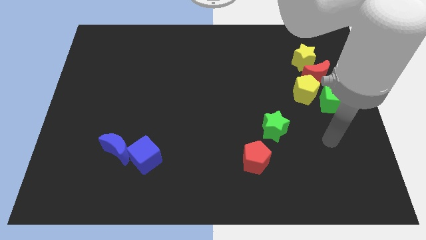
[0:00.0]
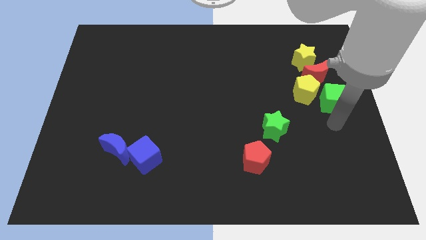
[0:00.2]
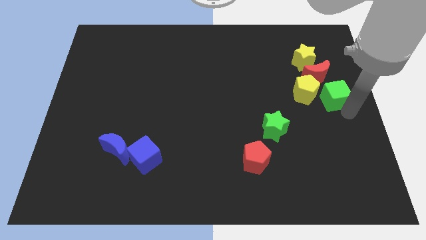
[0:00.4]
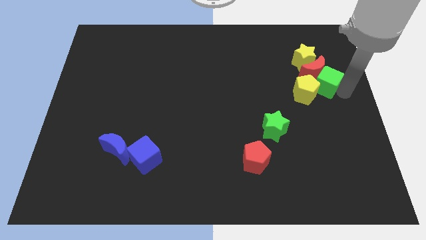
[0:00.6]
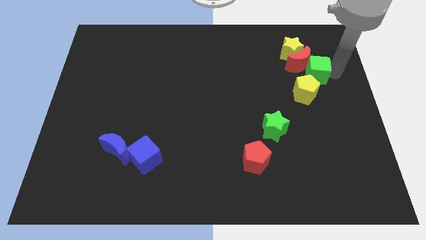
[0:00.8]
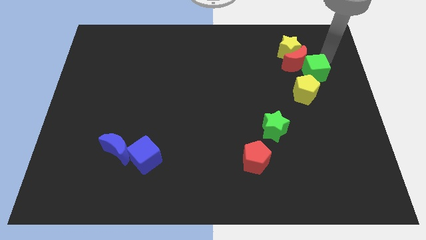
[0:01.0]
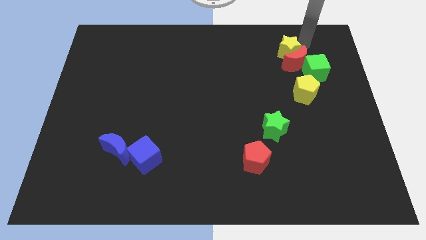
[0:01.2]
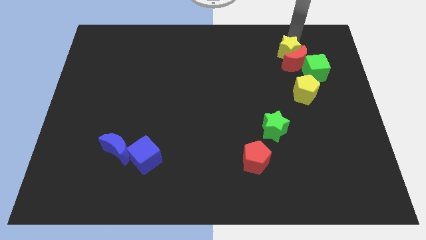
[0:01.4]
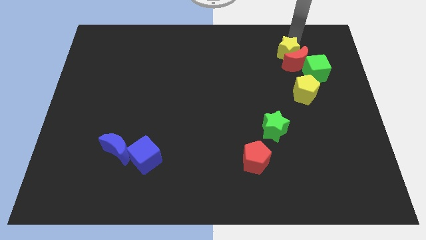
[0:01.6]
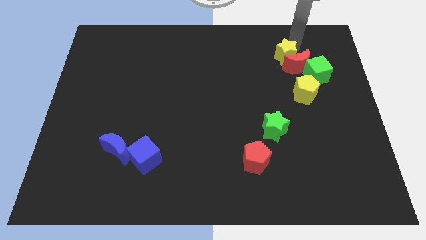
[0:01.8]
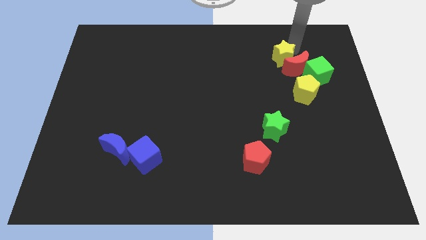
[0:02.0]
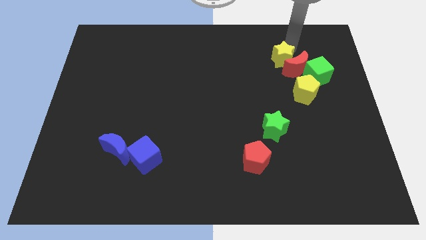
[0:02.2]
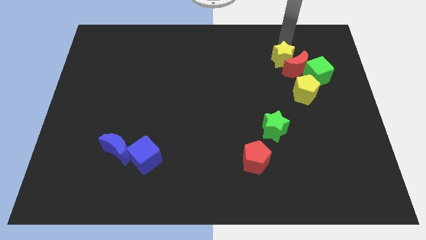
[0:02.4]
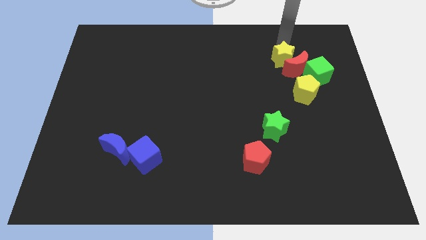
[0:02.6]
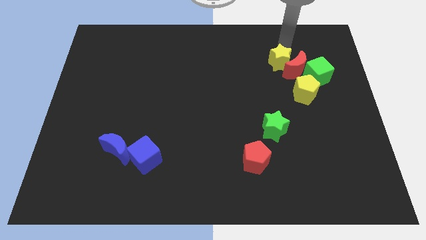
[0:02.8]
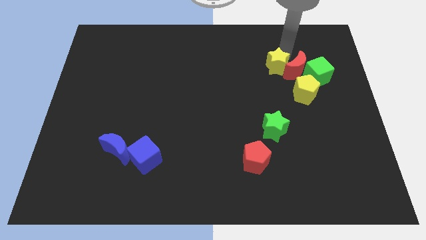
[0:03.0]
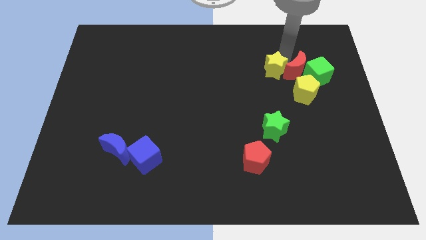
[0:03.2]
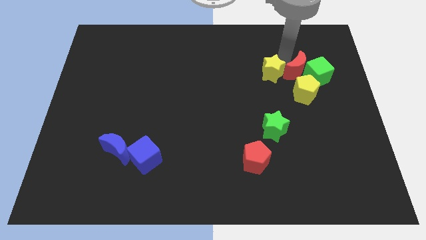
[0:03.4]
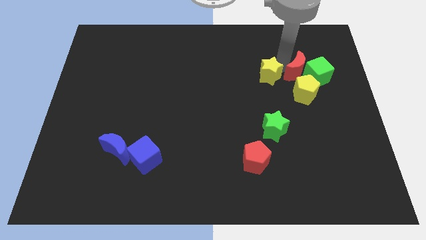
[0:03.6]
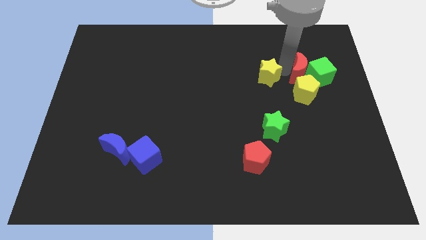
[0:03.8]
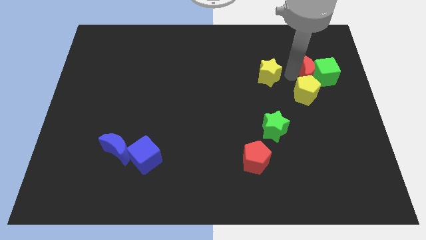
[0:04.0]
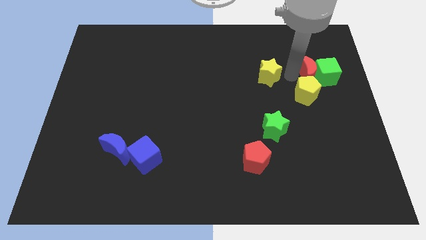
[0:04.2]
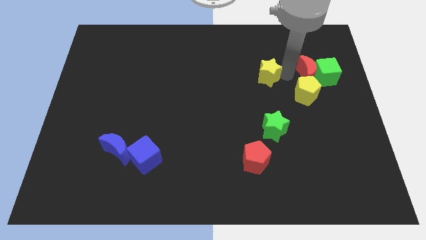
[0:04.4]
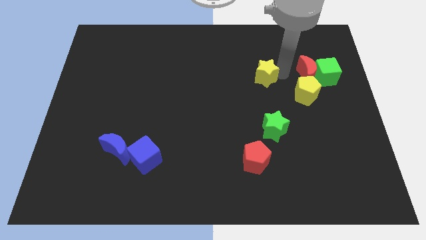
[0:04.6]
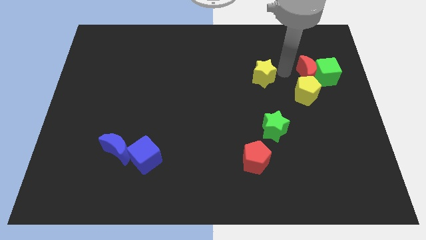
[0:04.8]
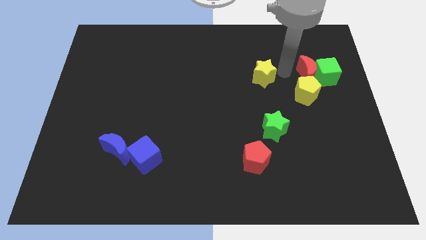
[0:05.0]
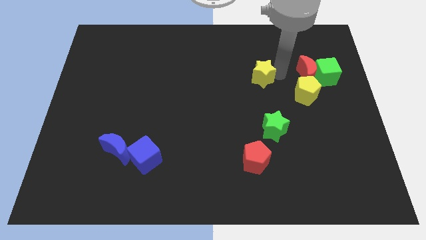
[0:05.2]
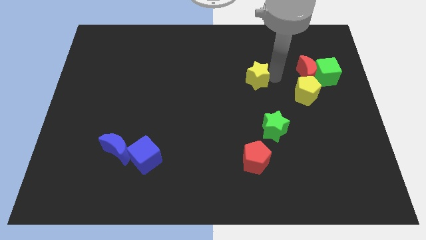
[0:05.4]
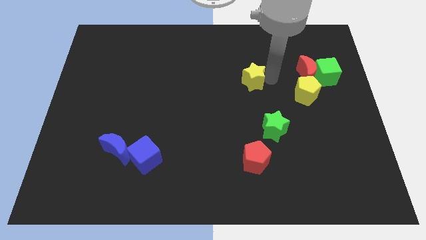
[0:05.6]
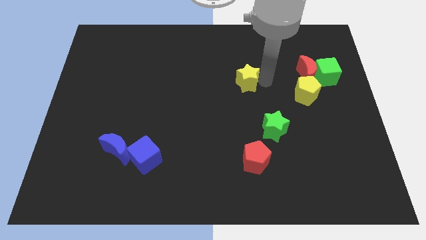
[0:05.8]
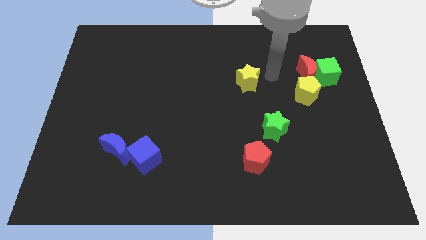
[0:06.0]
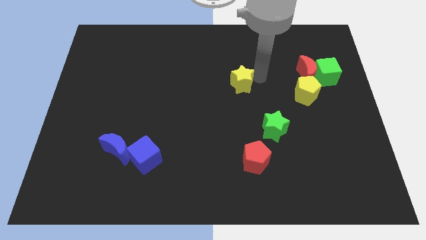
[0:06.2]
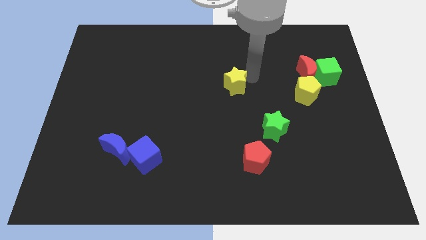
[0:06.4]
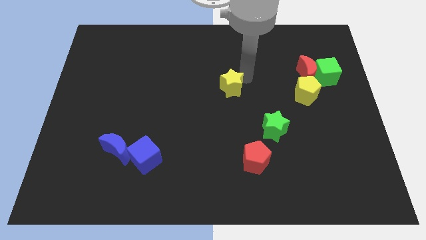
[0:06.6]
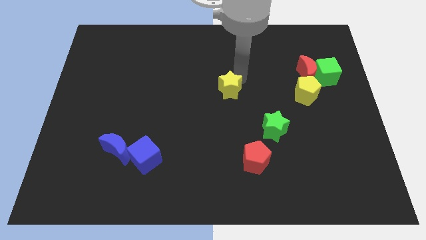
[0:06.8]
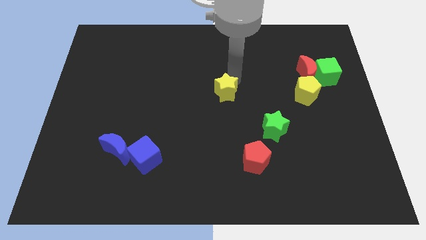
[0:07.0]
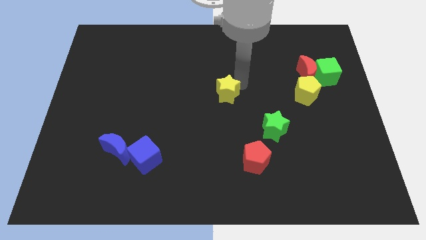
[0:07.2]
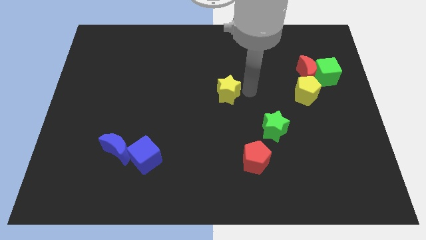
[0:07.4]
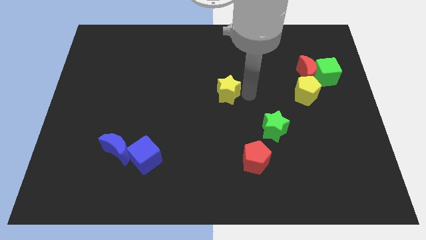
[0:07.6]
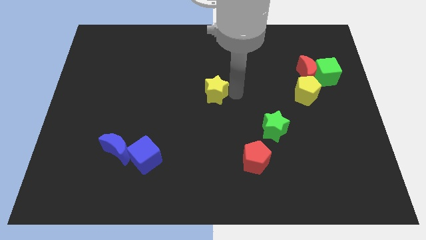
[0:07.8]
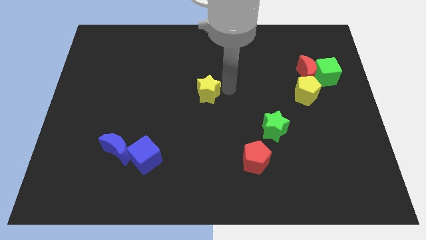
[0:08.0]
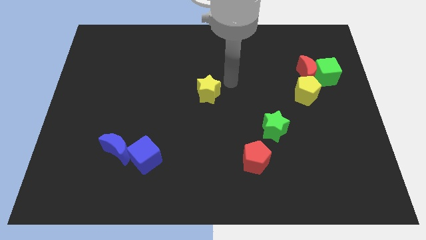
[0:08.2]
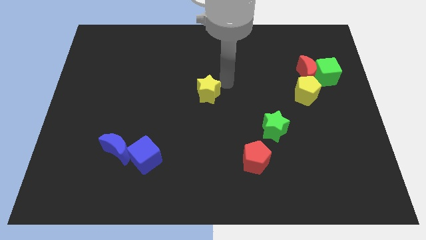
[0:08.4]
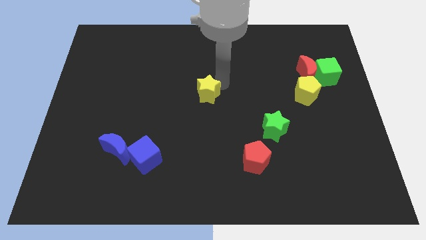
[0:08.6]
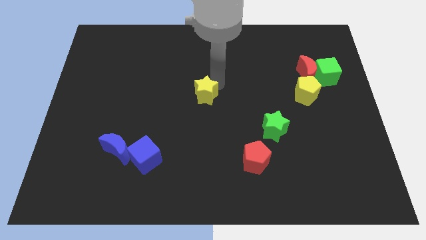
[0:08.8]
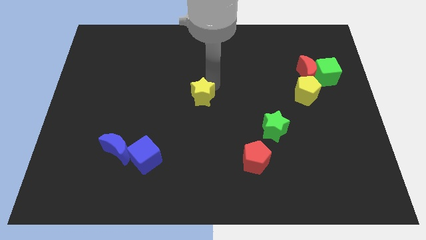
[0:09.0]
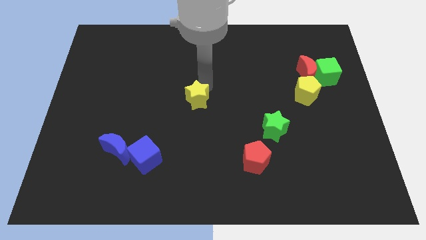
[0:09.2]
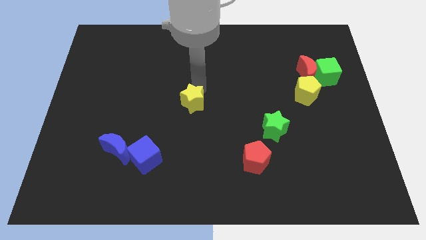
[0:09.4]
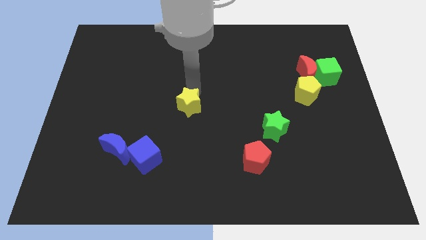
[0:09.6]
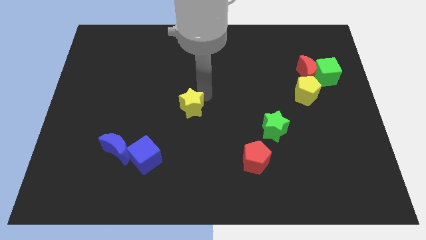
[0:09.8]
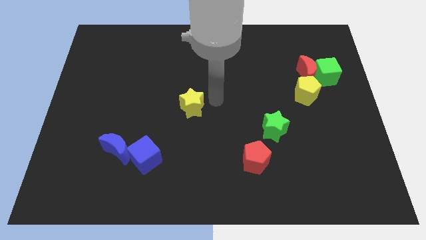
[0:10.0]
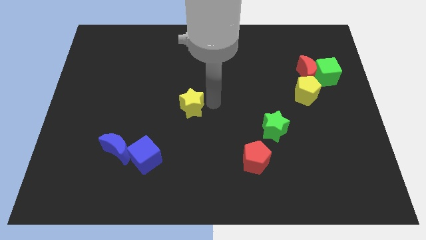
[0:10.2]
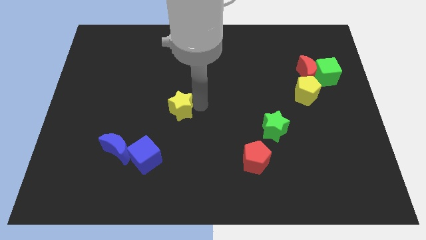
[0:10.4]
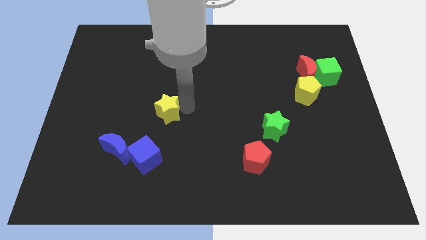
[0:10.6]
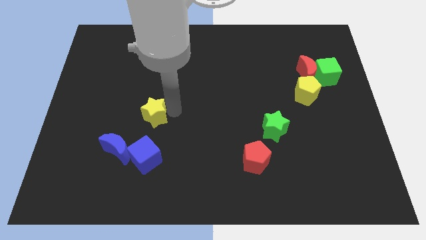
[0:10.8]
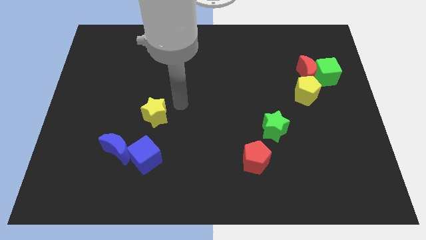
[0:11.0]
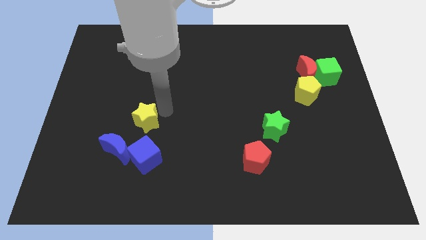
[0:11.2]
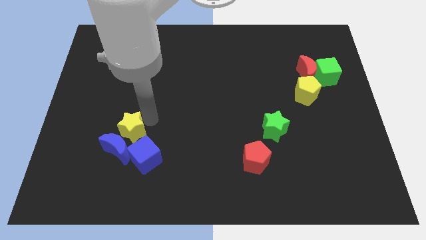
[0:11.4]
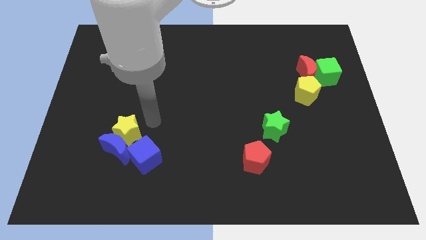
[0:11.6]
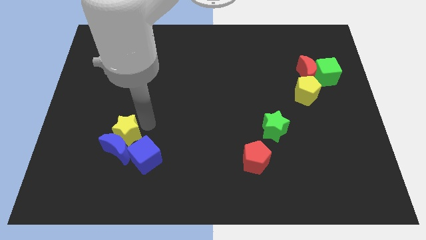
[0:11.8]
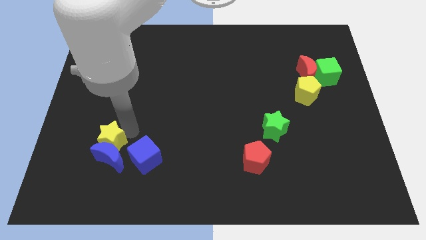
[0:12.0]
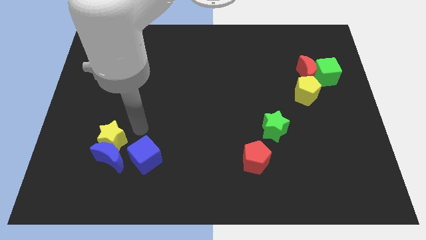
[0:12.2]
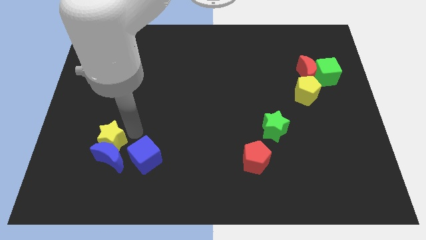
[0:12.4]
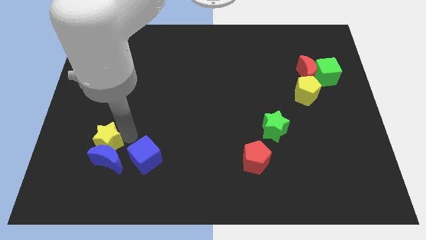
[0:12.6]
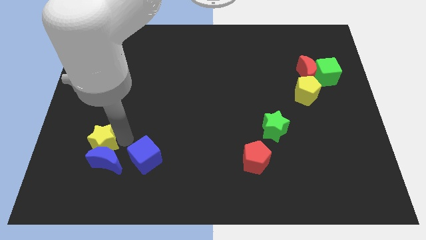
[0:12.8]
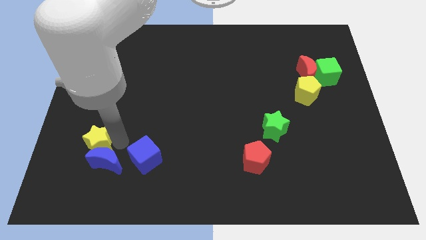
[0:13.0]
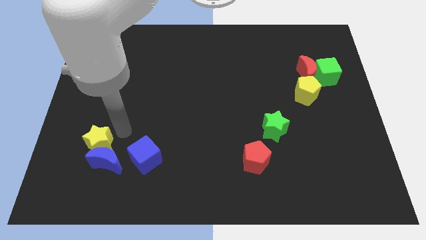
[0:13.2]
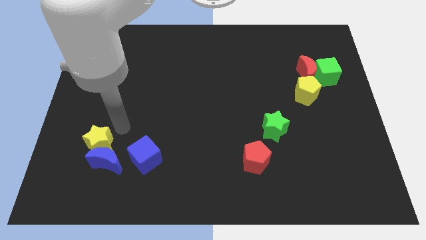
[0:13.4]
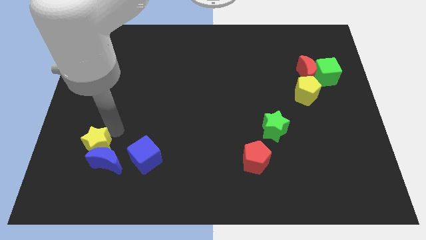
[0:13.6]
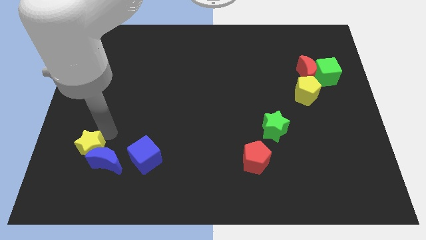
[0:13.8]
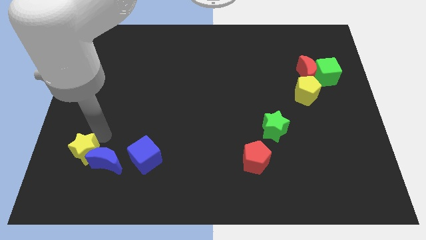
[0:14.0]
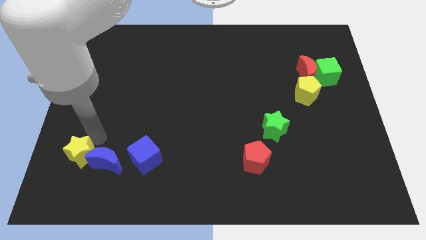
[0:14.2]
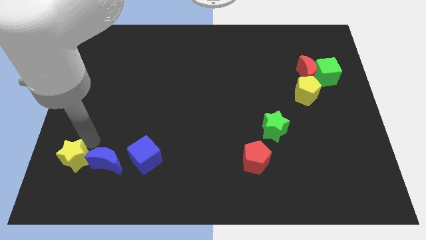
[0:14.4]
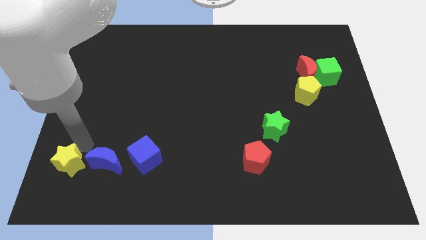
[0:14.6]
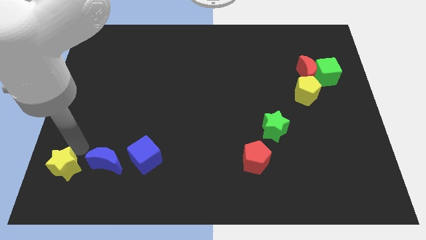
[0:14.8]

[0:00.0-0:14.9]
put the yellow star to the bottom left corner
